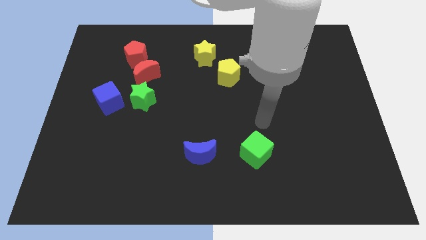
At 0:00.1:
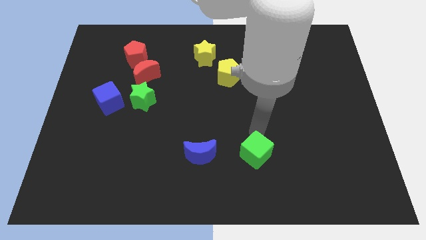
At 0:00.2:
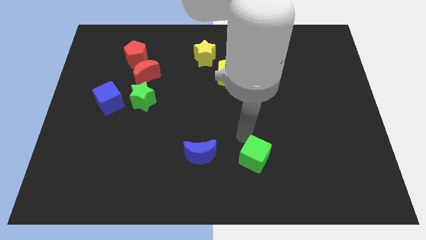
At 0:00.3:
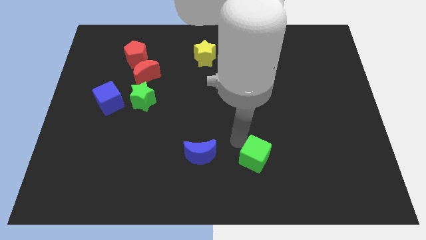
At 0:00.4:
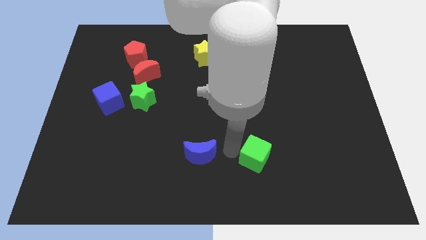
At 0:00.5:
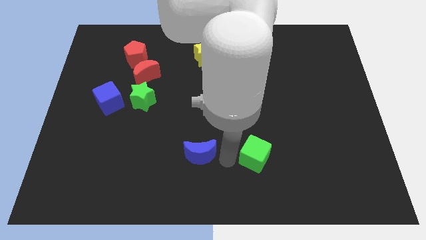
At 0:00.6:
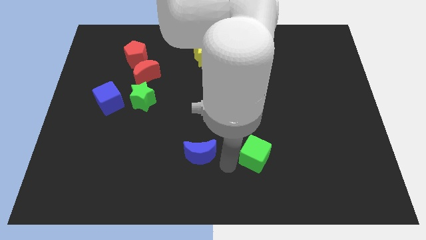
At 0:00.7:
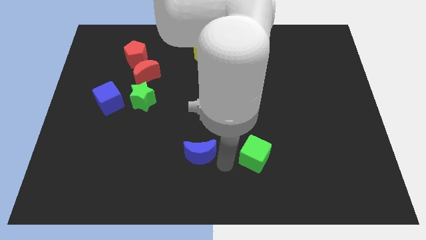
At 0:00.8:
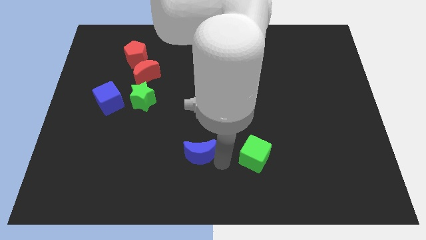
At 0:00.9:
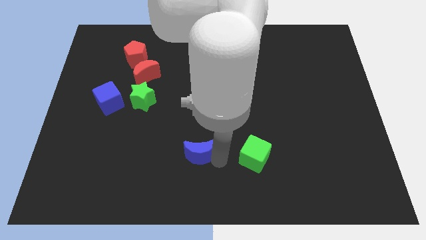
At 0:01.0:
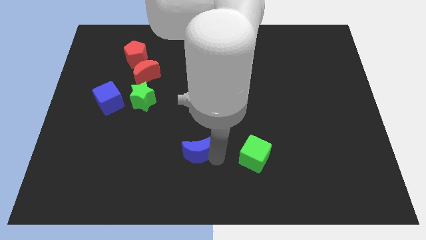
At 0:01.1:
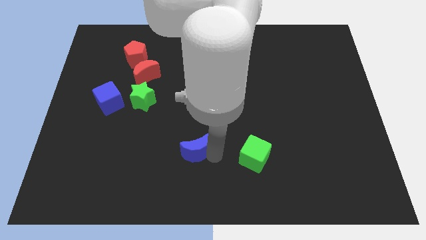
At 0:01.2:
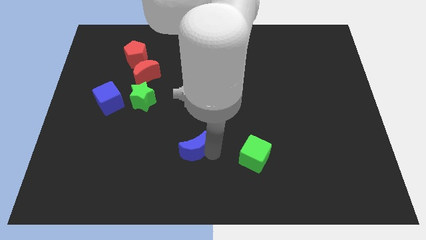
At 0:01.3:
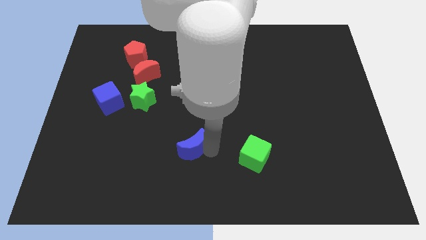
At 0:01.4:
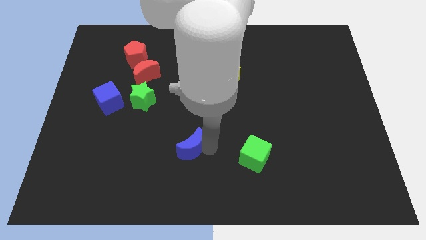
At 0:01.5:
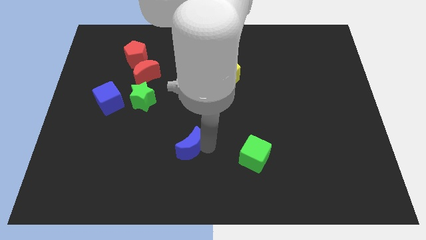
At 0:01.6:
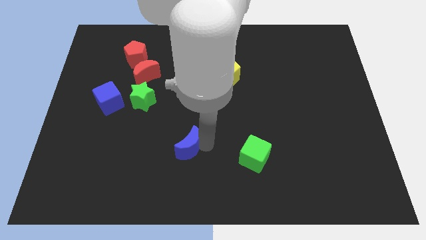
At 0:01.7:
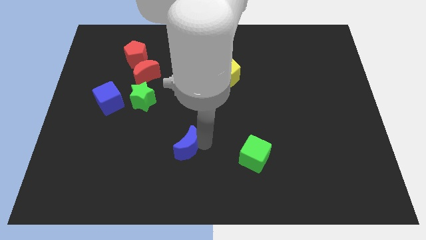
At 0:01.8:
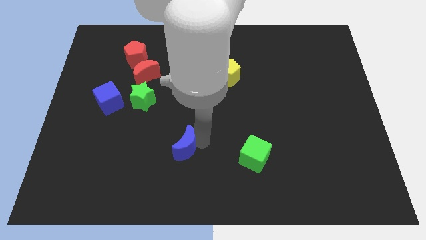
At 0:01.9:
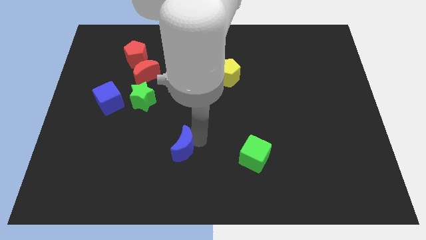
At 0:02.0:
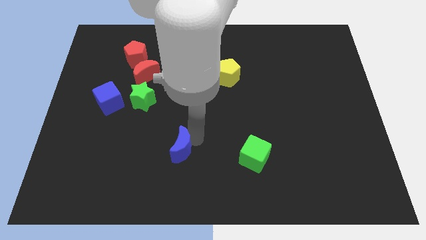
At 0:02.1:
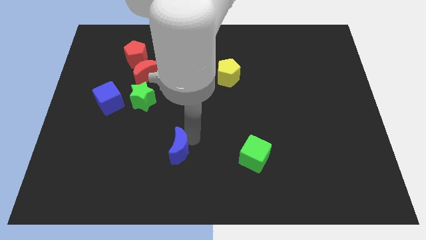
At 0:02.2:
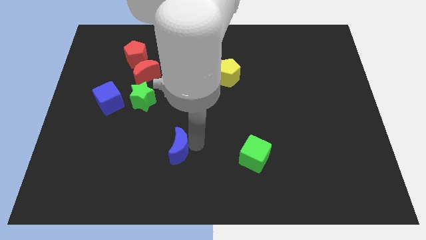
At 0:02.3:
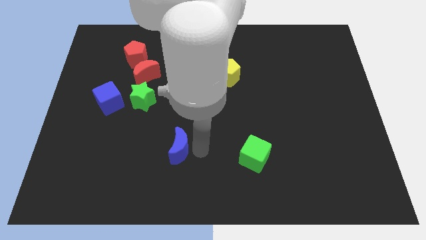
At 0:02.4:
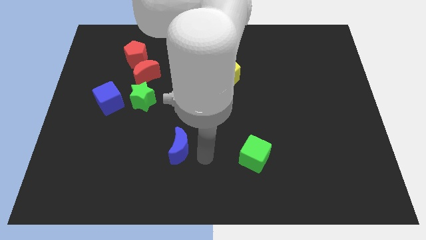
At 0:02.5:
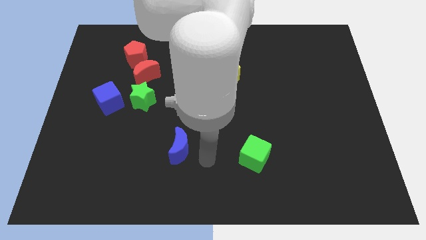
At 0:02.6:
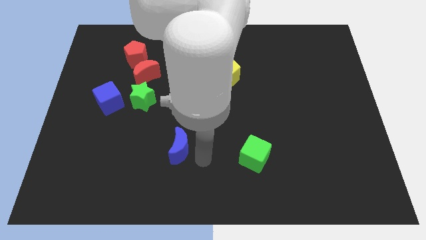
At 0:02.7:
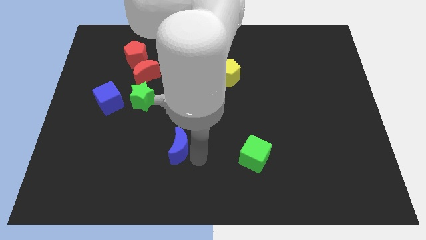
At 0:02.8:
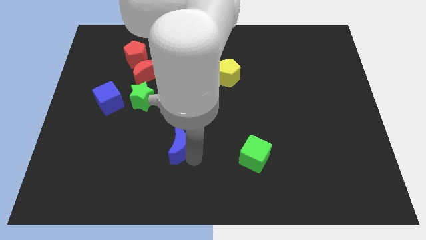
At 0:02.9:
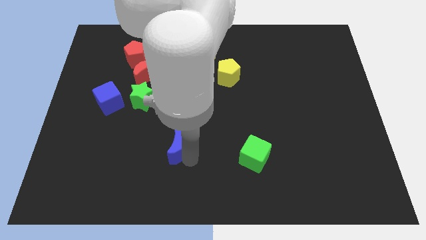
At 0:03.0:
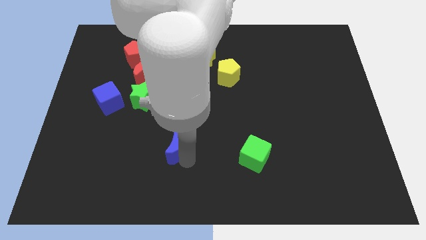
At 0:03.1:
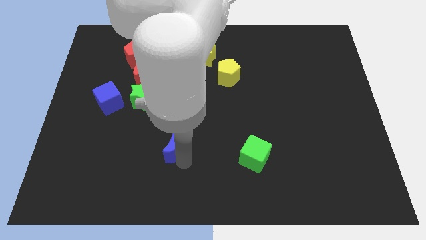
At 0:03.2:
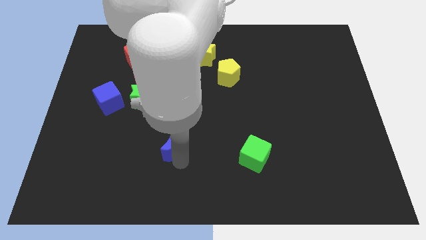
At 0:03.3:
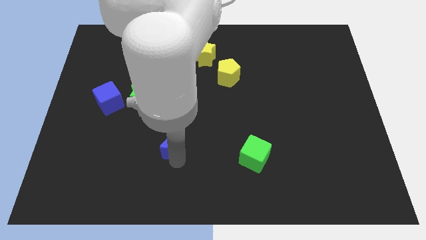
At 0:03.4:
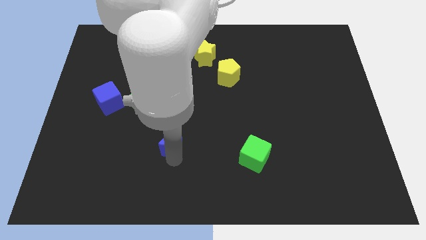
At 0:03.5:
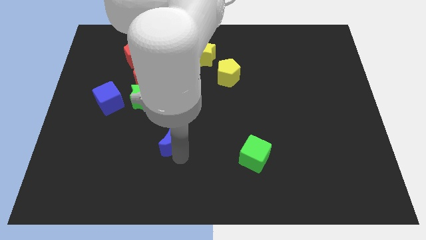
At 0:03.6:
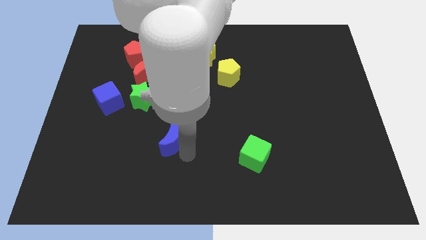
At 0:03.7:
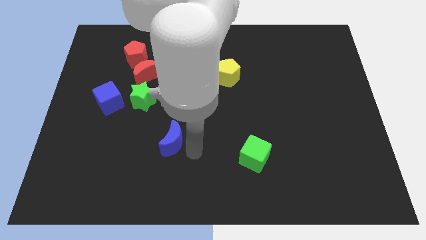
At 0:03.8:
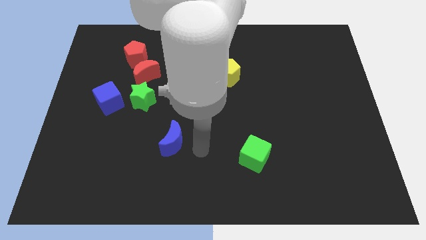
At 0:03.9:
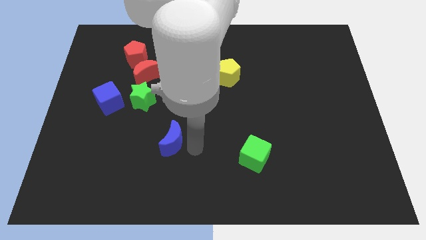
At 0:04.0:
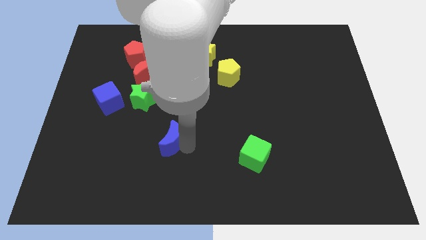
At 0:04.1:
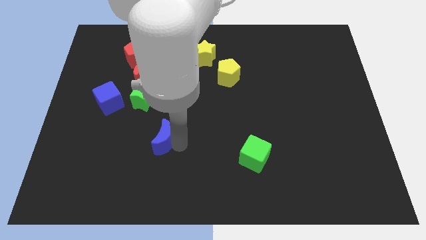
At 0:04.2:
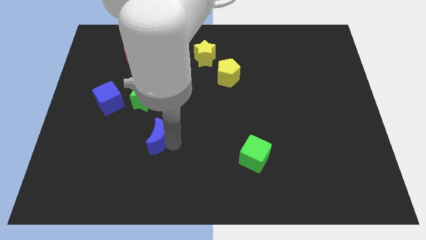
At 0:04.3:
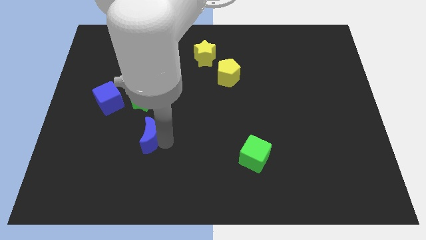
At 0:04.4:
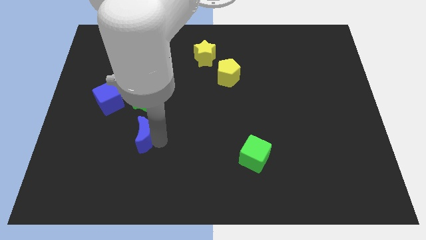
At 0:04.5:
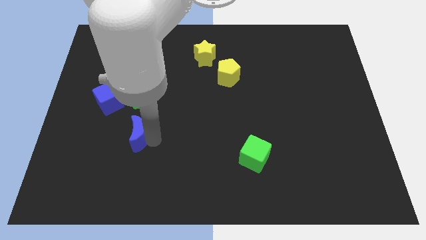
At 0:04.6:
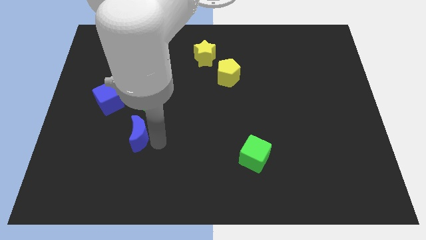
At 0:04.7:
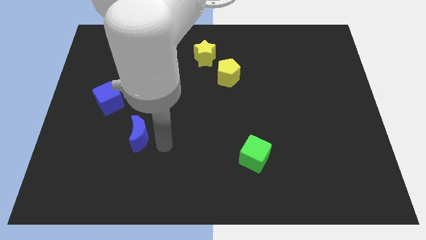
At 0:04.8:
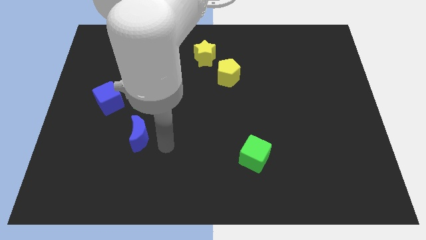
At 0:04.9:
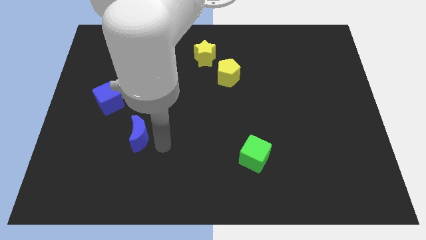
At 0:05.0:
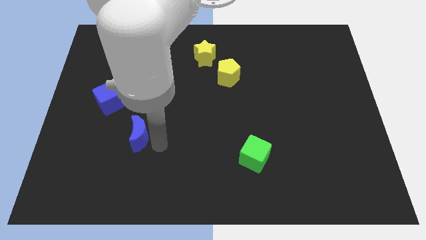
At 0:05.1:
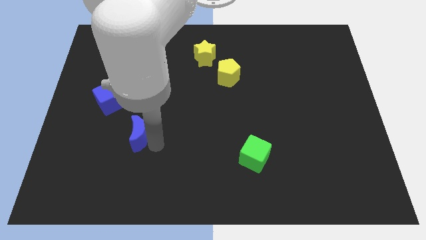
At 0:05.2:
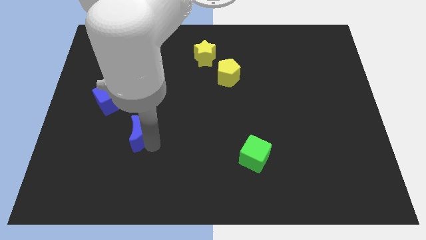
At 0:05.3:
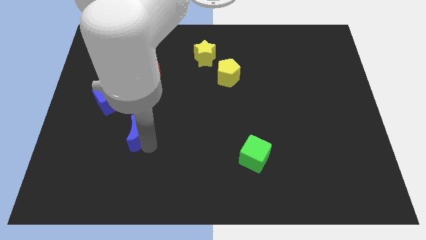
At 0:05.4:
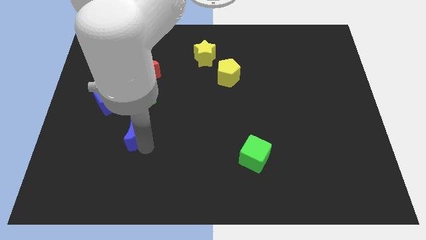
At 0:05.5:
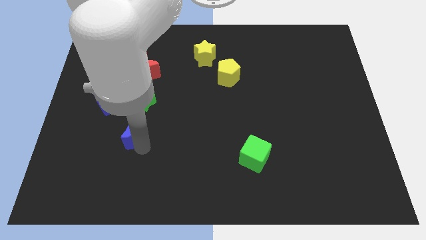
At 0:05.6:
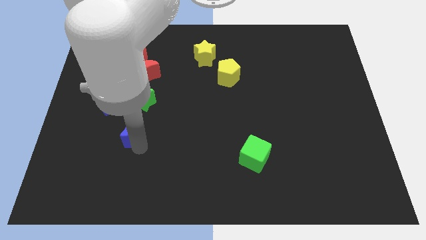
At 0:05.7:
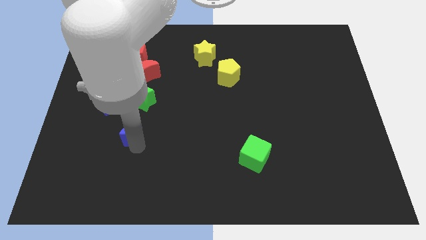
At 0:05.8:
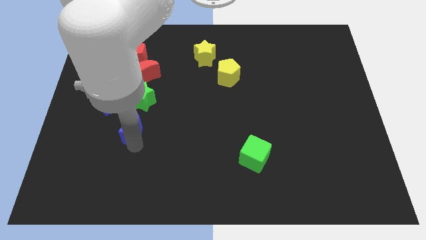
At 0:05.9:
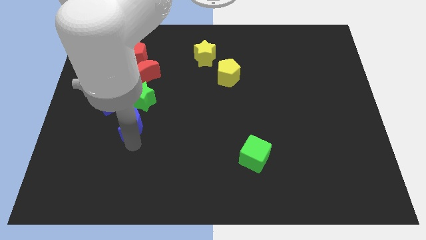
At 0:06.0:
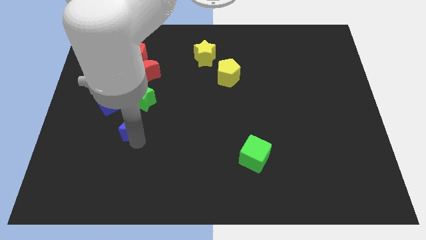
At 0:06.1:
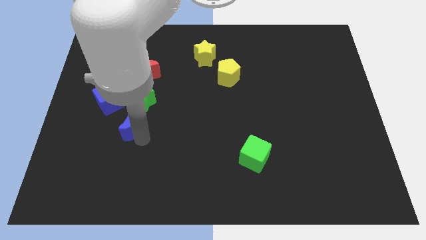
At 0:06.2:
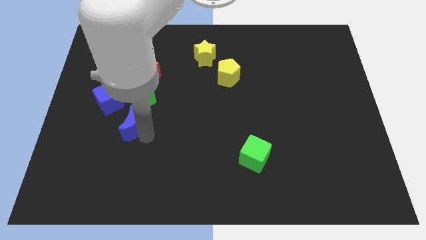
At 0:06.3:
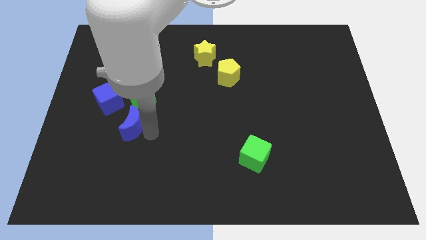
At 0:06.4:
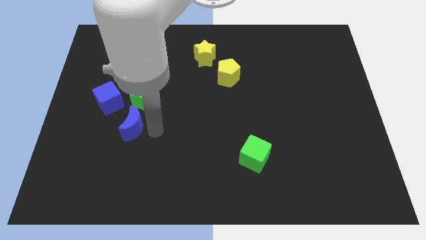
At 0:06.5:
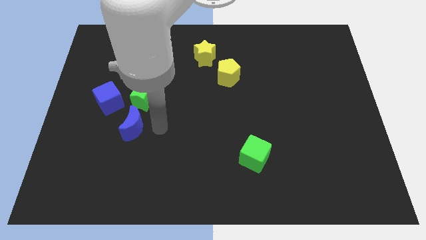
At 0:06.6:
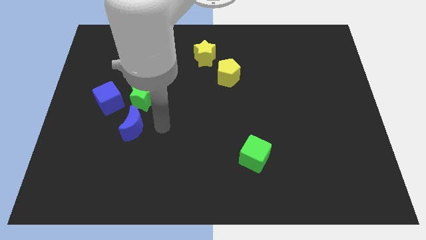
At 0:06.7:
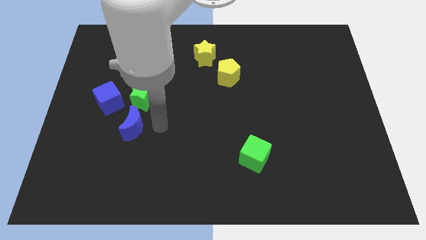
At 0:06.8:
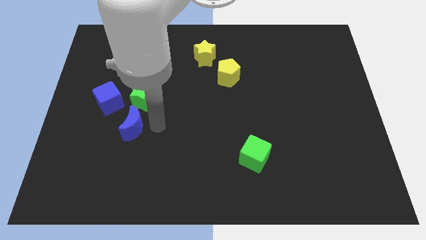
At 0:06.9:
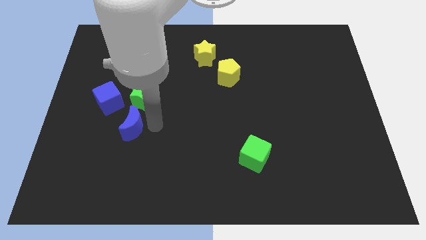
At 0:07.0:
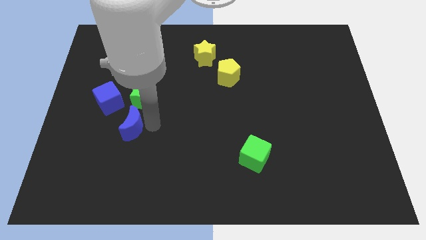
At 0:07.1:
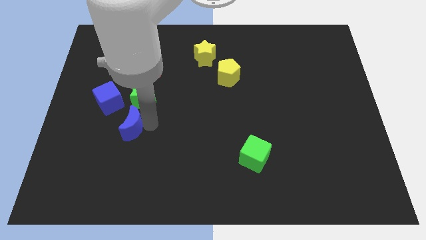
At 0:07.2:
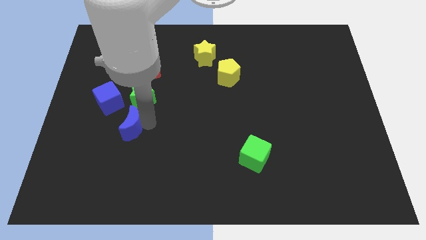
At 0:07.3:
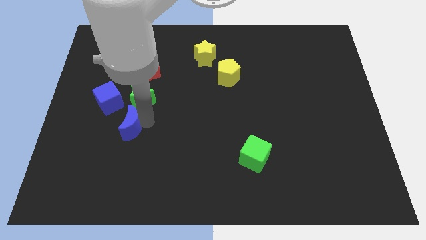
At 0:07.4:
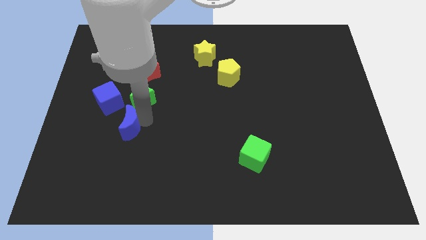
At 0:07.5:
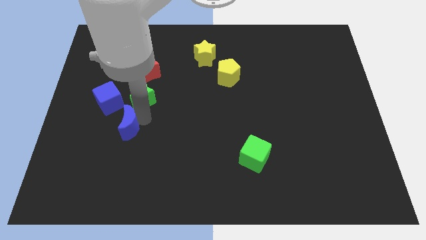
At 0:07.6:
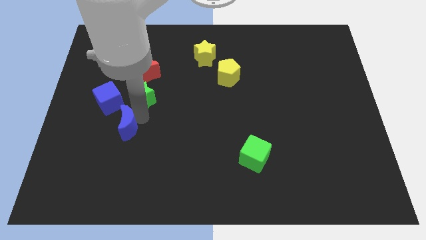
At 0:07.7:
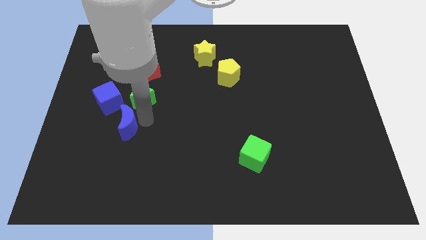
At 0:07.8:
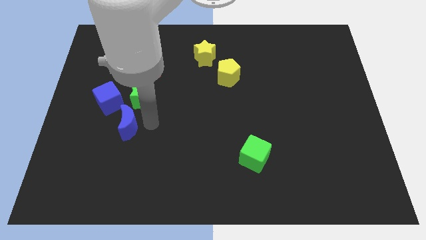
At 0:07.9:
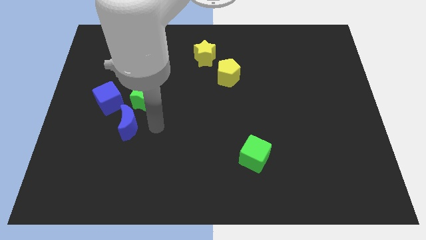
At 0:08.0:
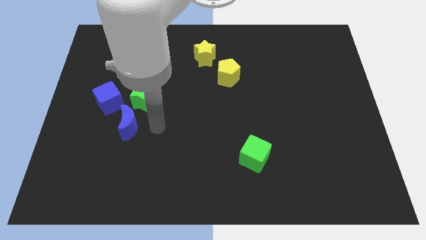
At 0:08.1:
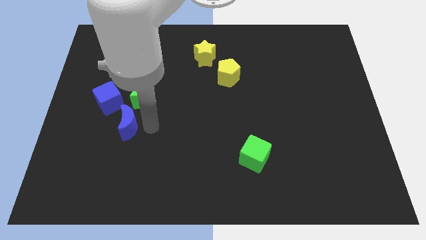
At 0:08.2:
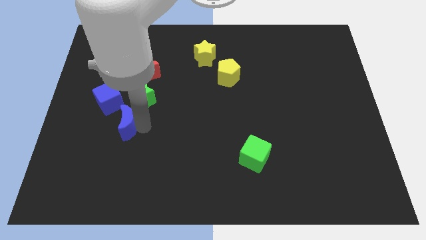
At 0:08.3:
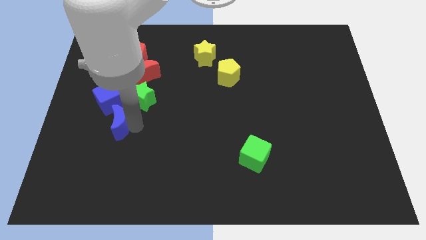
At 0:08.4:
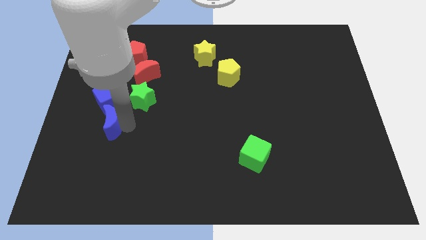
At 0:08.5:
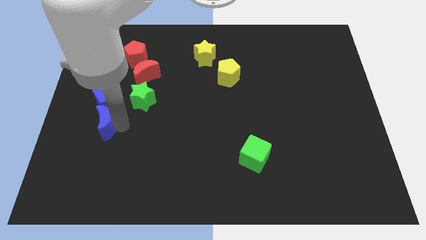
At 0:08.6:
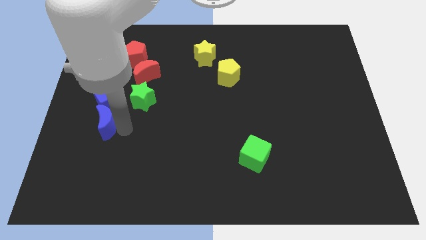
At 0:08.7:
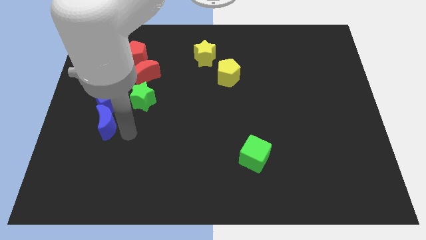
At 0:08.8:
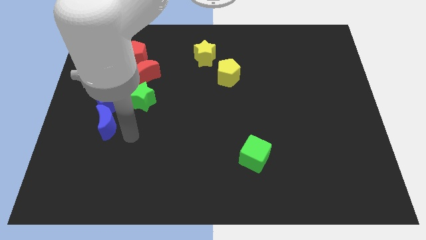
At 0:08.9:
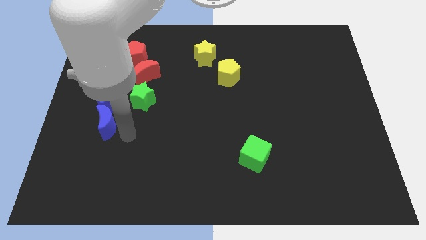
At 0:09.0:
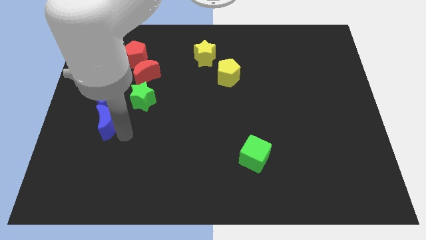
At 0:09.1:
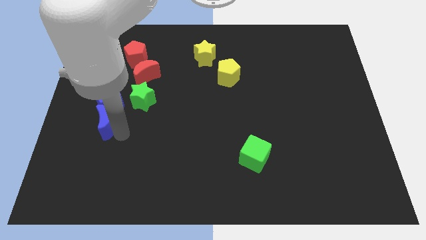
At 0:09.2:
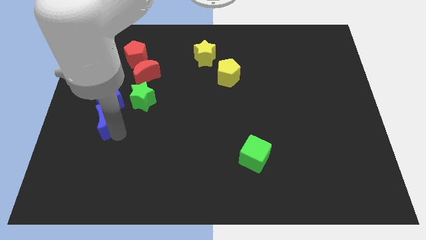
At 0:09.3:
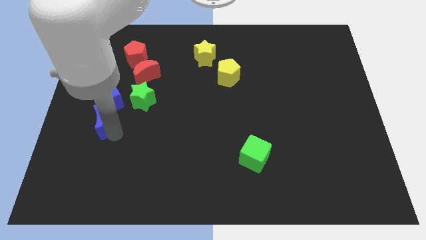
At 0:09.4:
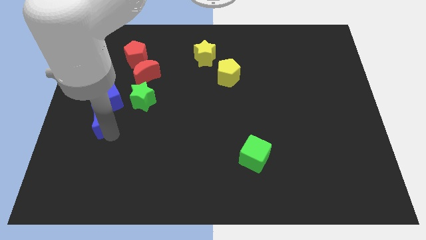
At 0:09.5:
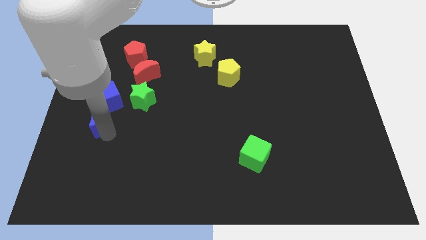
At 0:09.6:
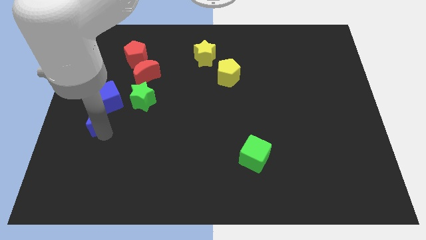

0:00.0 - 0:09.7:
move the blue moon to the left side of the board
